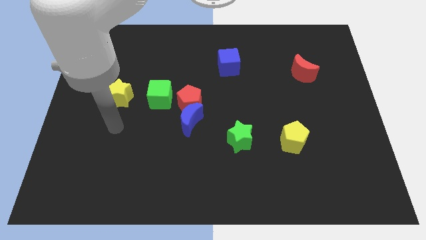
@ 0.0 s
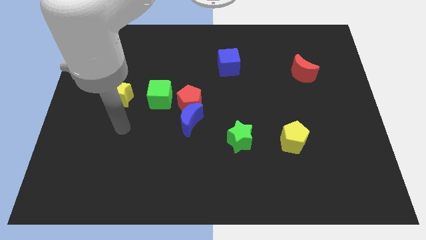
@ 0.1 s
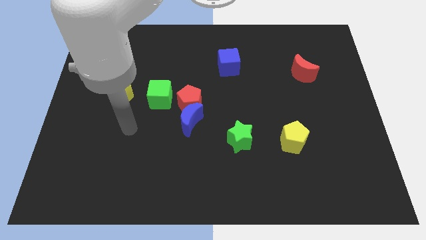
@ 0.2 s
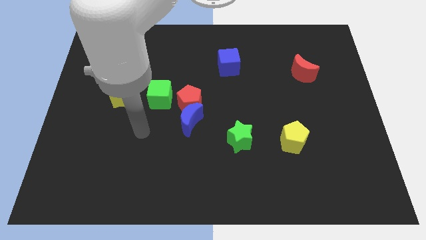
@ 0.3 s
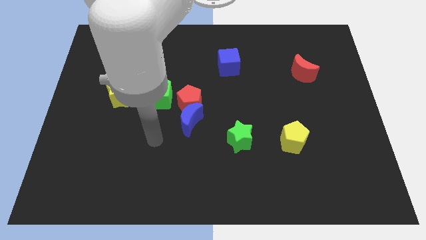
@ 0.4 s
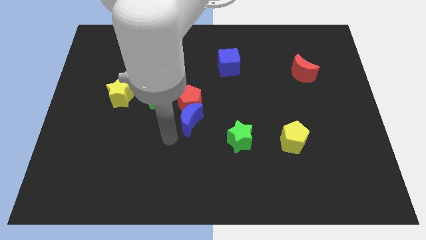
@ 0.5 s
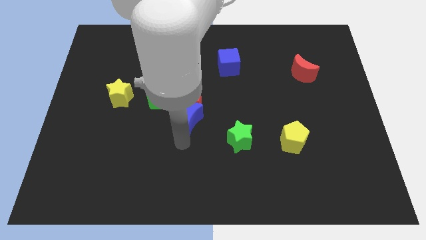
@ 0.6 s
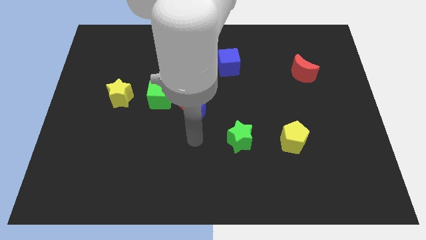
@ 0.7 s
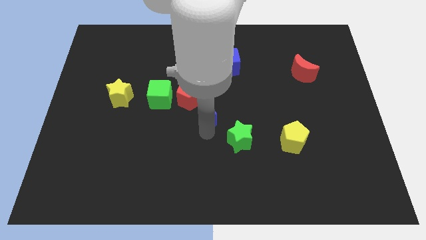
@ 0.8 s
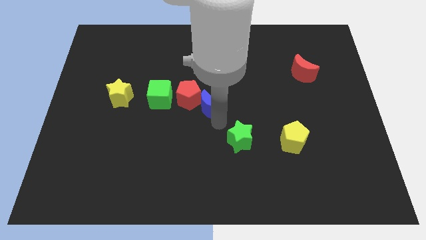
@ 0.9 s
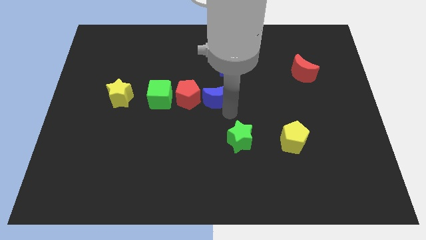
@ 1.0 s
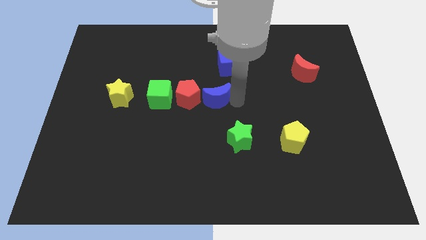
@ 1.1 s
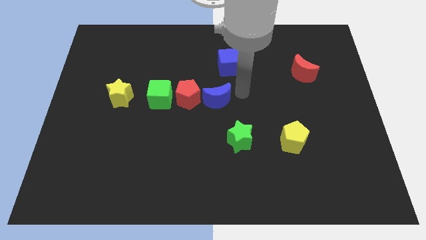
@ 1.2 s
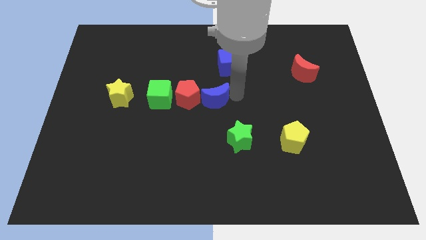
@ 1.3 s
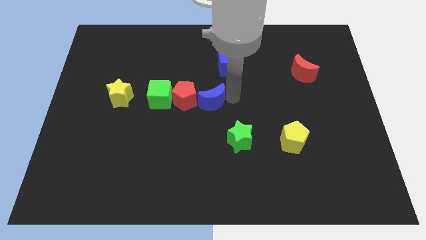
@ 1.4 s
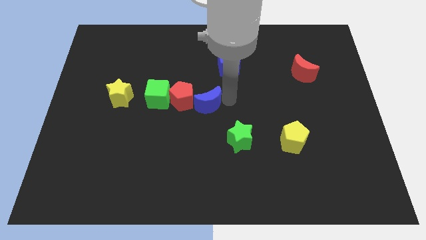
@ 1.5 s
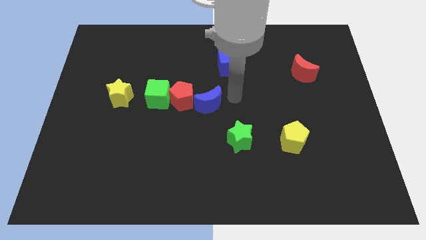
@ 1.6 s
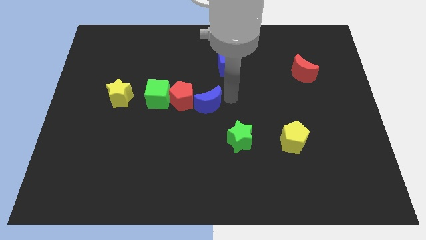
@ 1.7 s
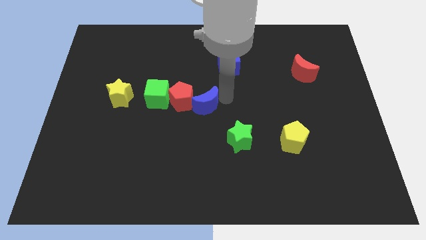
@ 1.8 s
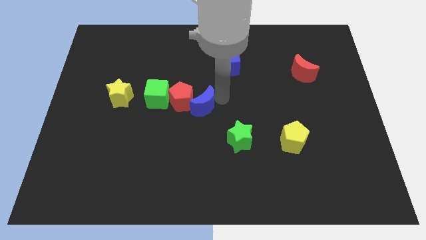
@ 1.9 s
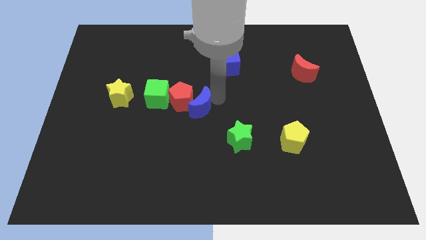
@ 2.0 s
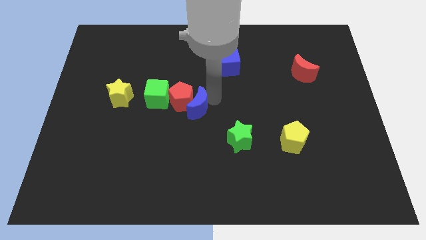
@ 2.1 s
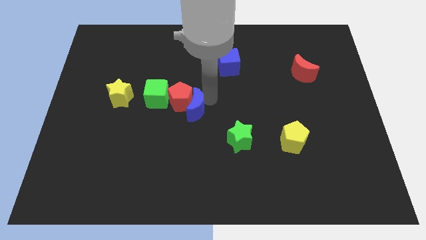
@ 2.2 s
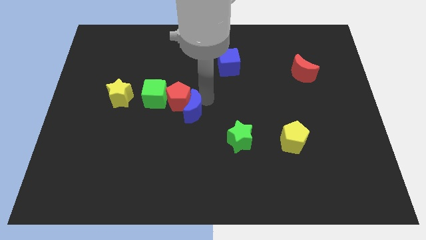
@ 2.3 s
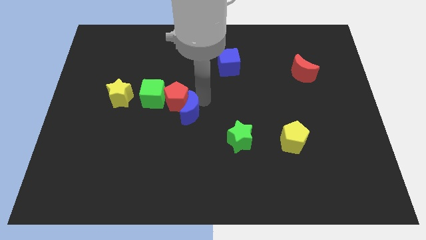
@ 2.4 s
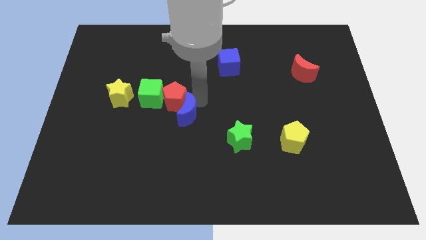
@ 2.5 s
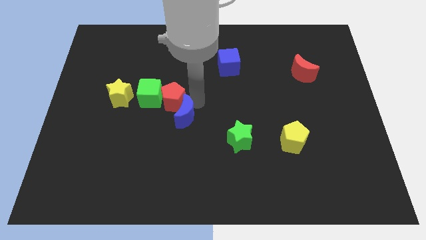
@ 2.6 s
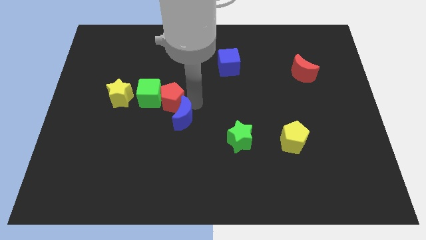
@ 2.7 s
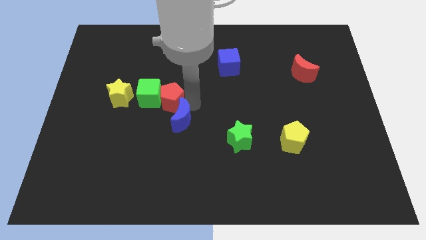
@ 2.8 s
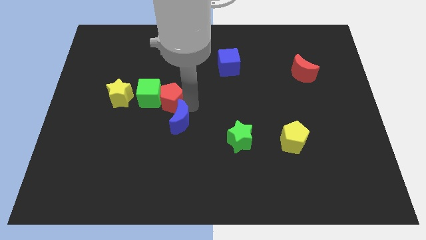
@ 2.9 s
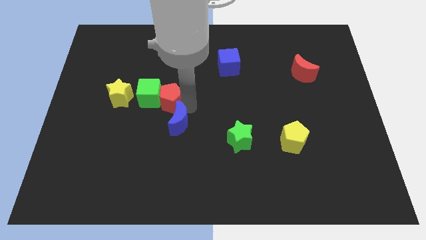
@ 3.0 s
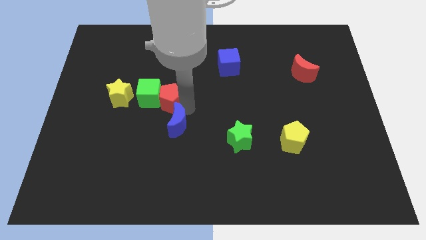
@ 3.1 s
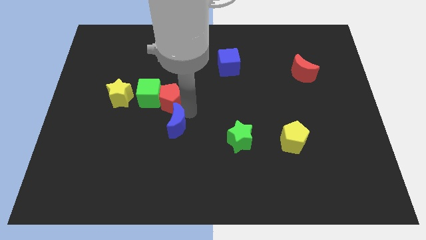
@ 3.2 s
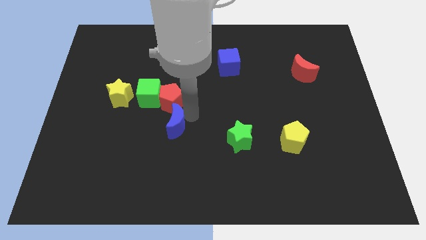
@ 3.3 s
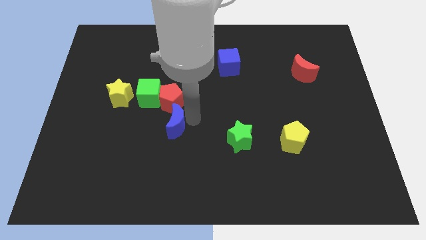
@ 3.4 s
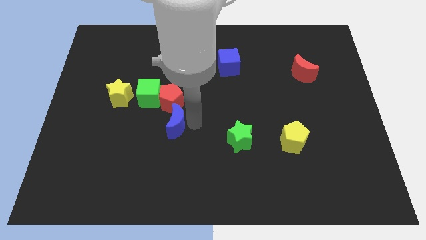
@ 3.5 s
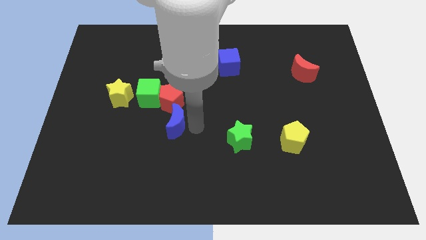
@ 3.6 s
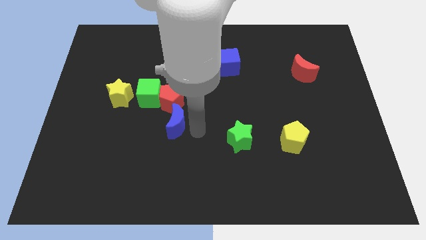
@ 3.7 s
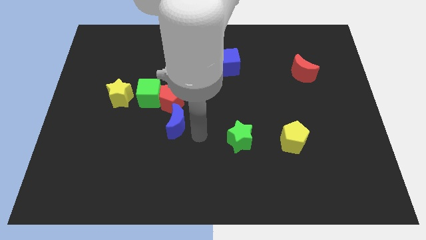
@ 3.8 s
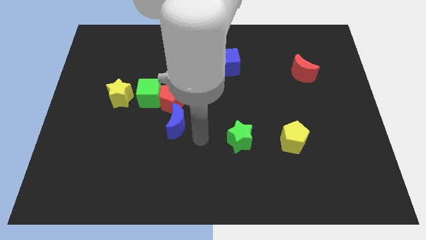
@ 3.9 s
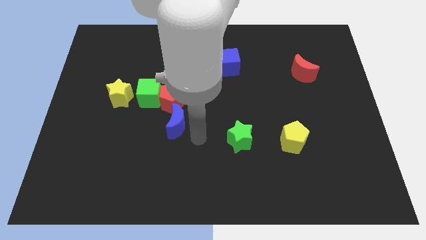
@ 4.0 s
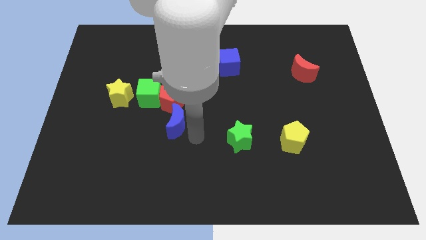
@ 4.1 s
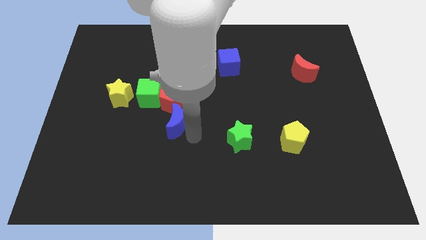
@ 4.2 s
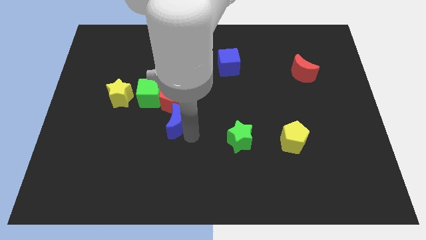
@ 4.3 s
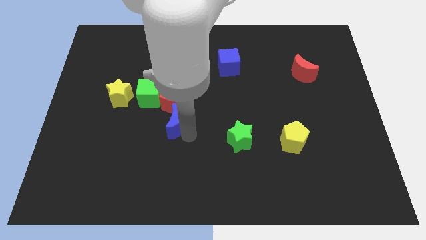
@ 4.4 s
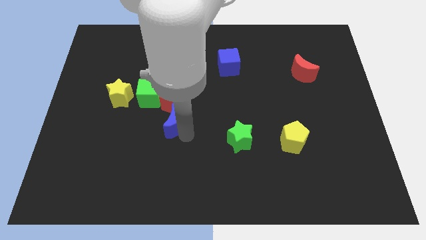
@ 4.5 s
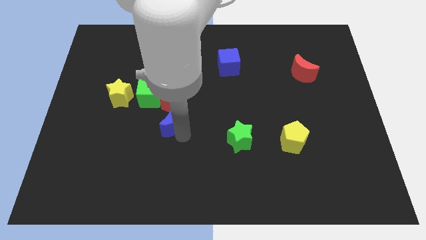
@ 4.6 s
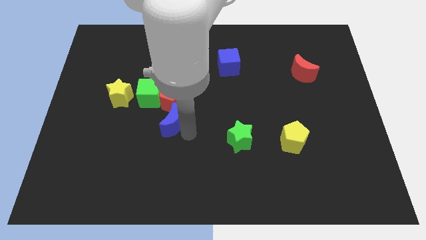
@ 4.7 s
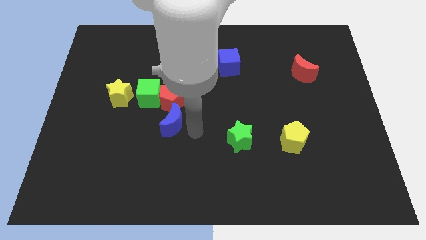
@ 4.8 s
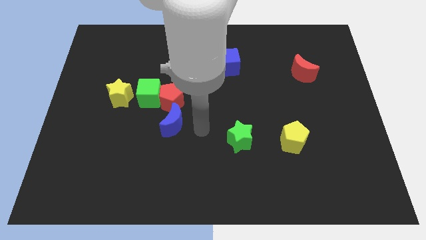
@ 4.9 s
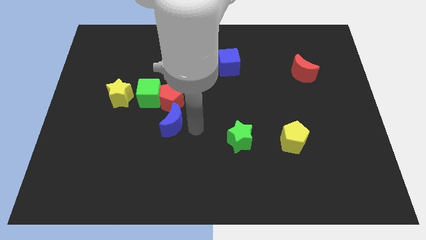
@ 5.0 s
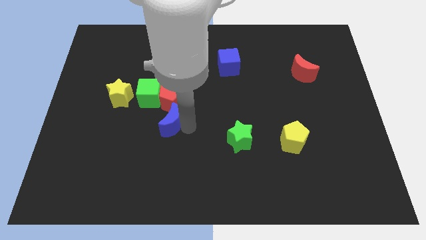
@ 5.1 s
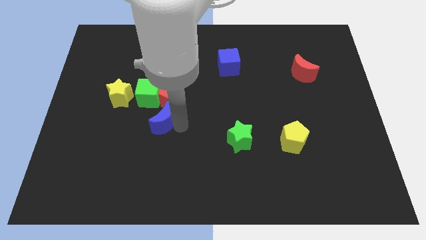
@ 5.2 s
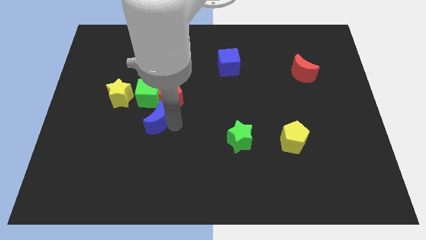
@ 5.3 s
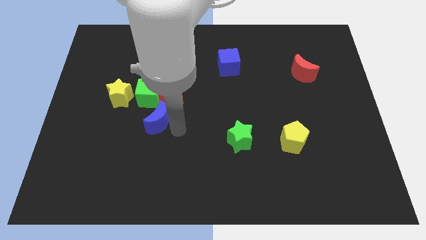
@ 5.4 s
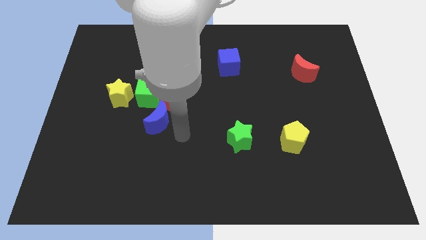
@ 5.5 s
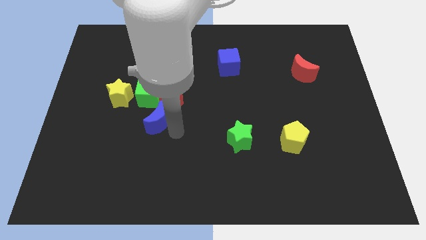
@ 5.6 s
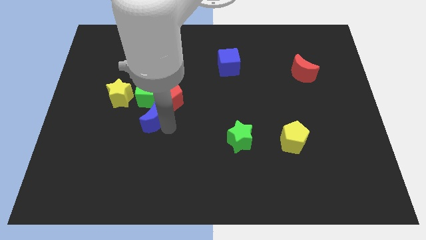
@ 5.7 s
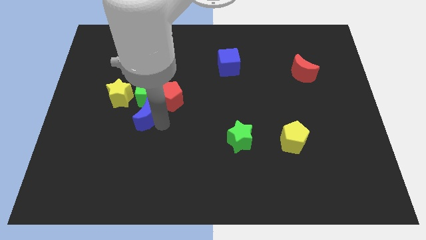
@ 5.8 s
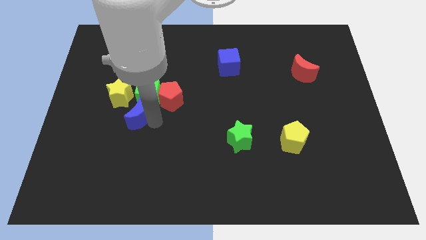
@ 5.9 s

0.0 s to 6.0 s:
push the blue moon slightly up and left

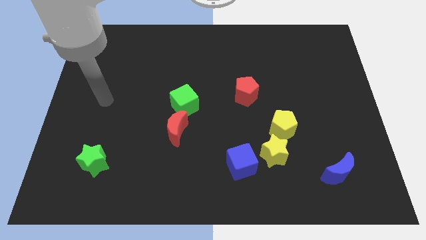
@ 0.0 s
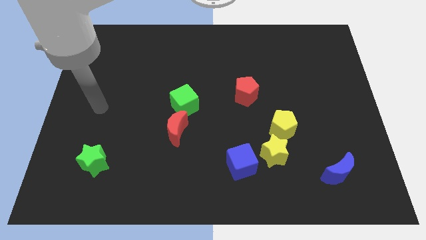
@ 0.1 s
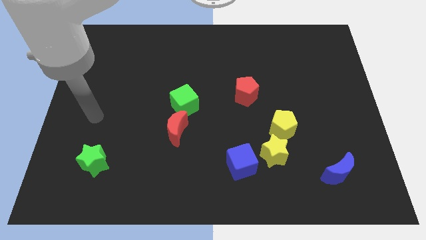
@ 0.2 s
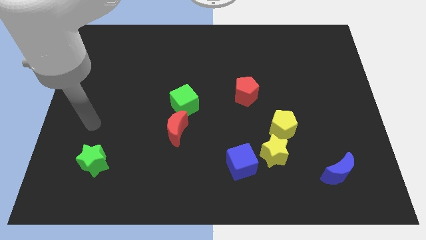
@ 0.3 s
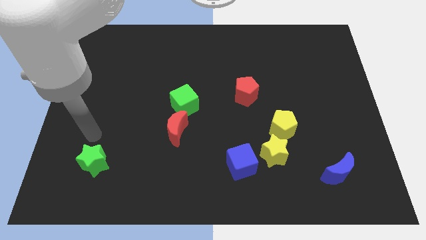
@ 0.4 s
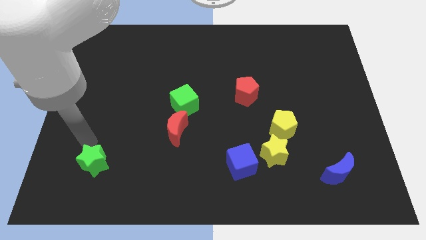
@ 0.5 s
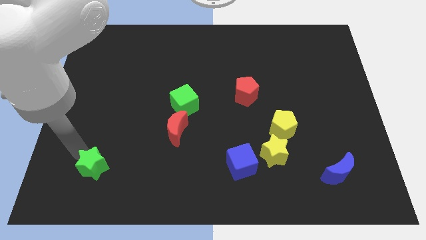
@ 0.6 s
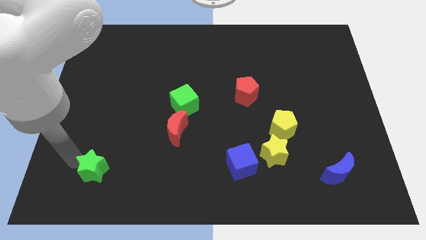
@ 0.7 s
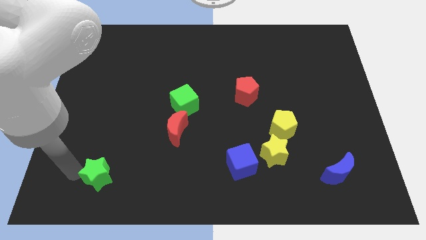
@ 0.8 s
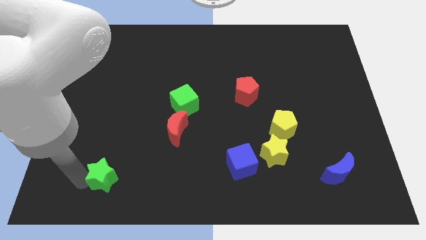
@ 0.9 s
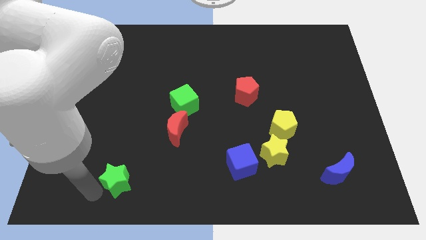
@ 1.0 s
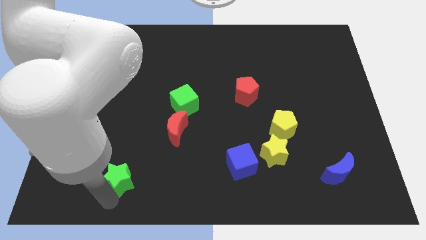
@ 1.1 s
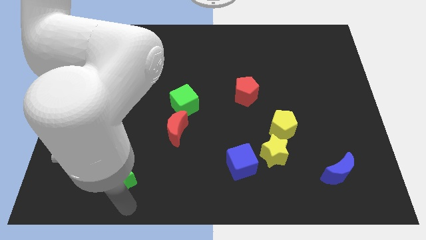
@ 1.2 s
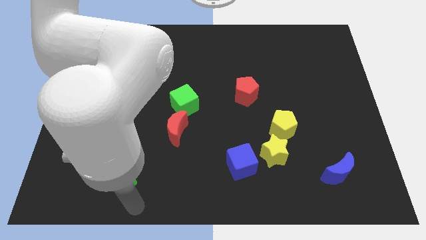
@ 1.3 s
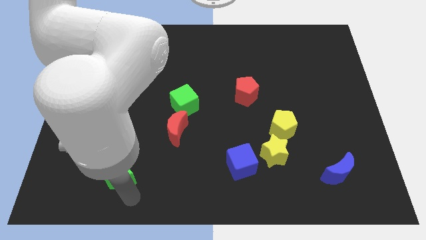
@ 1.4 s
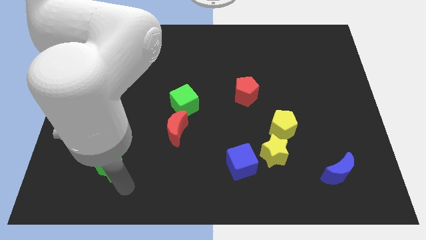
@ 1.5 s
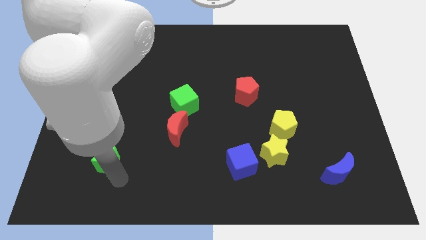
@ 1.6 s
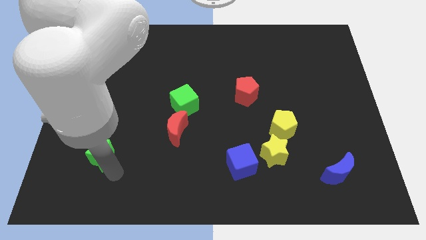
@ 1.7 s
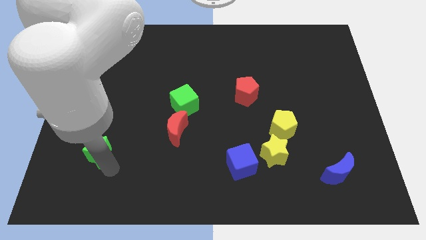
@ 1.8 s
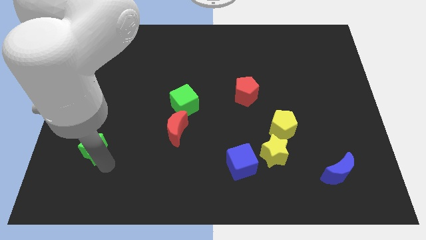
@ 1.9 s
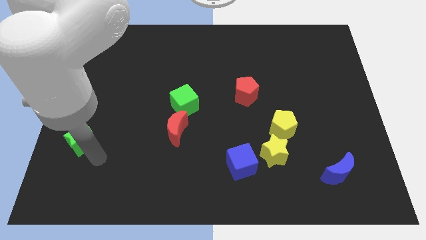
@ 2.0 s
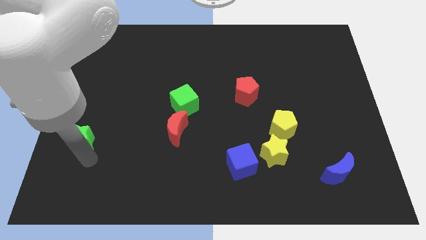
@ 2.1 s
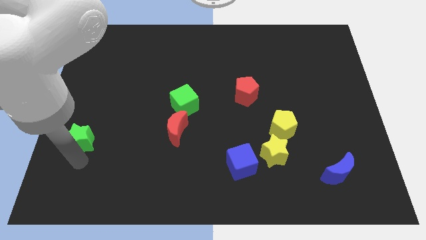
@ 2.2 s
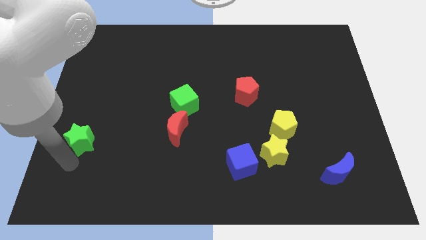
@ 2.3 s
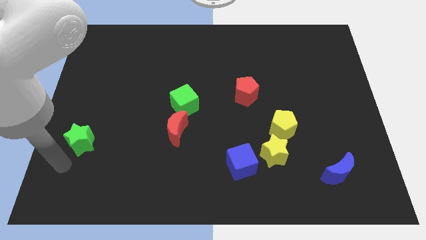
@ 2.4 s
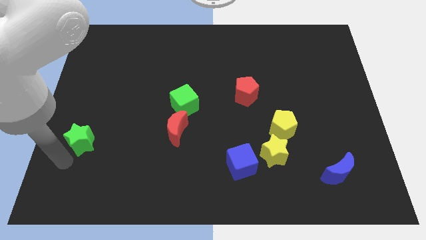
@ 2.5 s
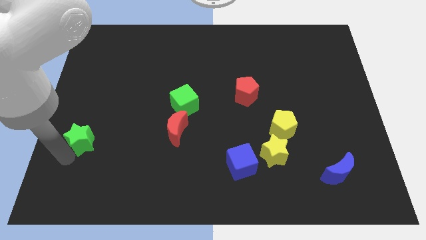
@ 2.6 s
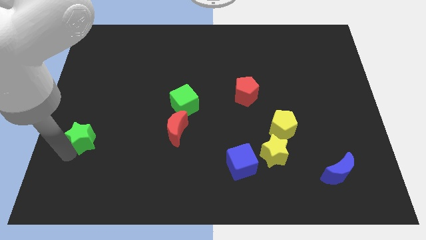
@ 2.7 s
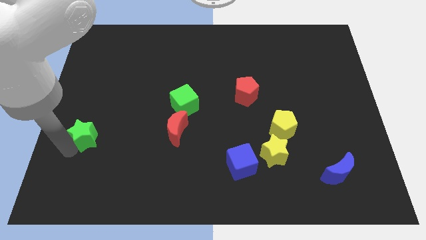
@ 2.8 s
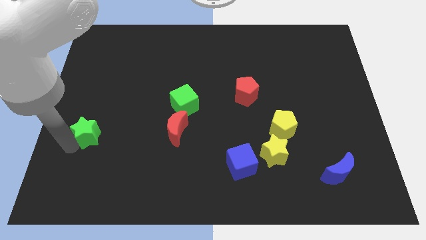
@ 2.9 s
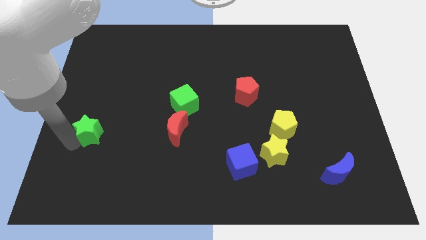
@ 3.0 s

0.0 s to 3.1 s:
push the green star up a little bit
